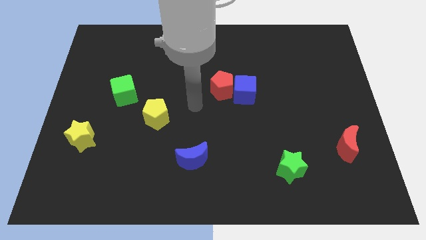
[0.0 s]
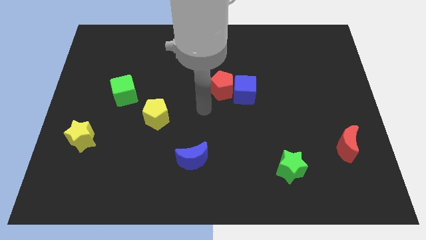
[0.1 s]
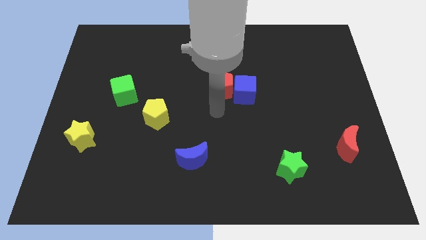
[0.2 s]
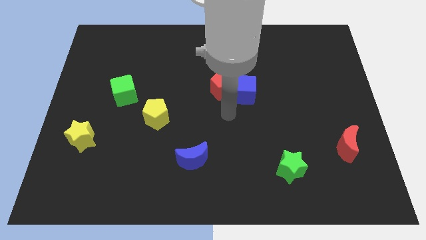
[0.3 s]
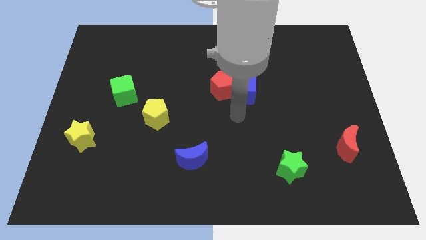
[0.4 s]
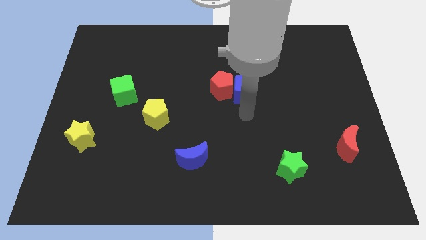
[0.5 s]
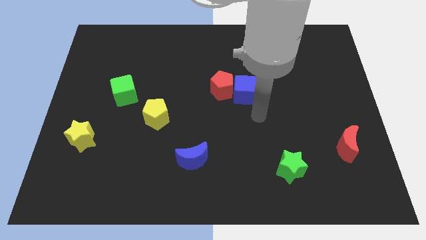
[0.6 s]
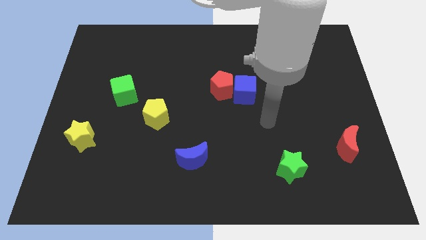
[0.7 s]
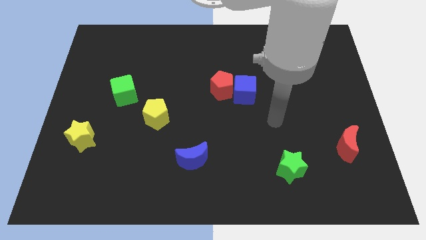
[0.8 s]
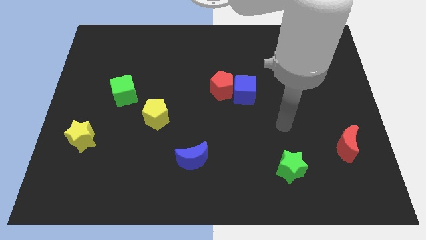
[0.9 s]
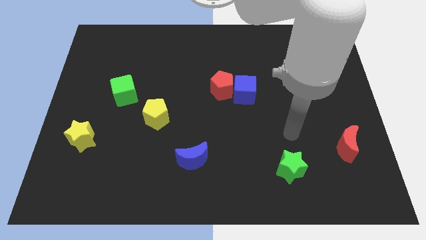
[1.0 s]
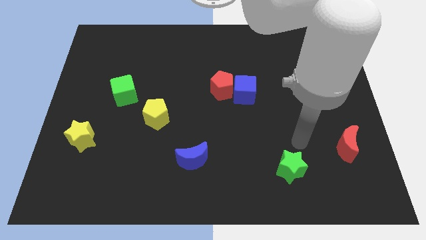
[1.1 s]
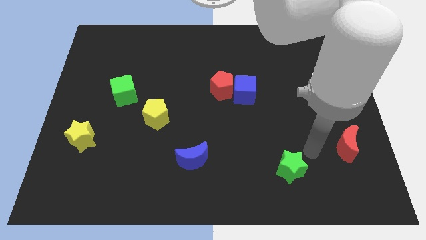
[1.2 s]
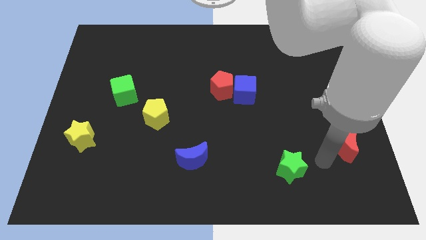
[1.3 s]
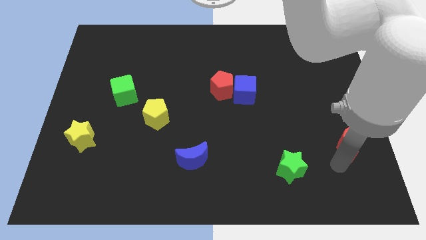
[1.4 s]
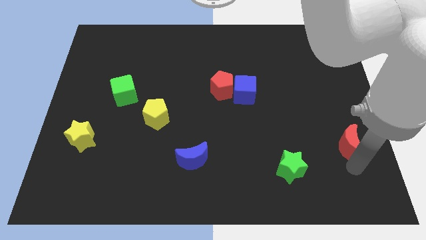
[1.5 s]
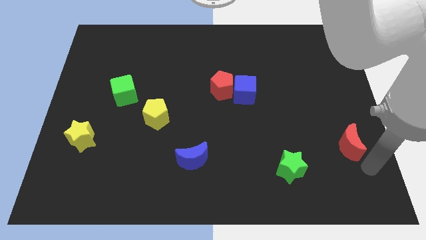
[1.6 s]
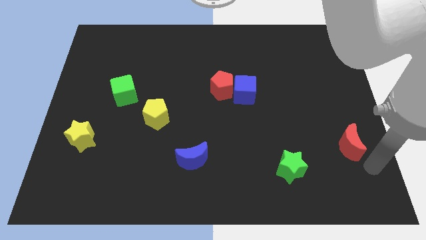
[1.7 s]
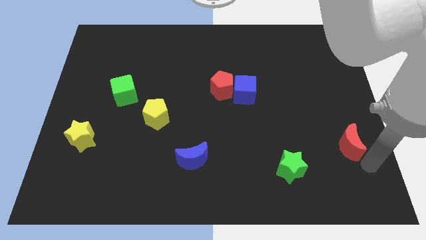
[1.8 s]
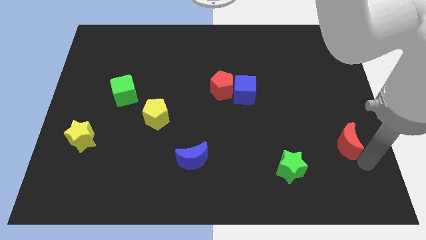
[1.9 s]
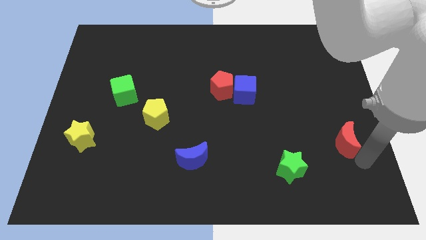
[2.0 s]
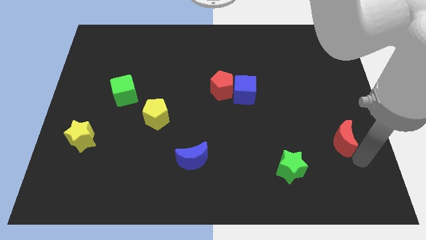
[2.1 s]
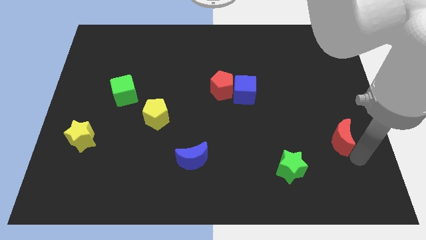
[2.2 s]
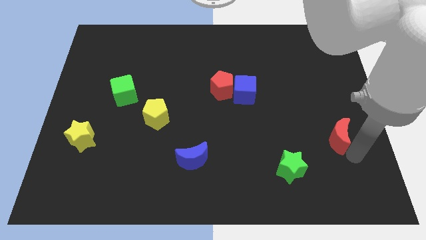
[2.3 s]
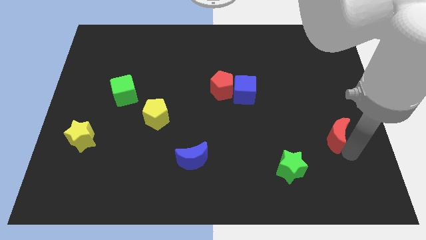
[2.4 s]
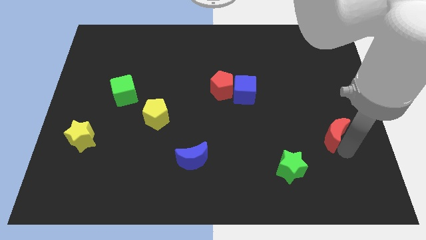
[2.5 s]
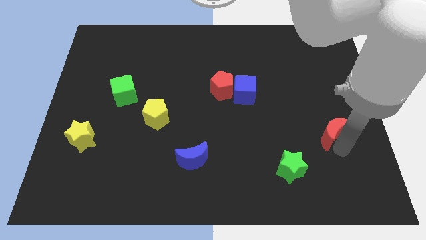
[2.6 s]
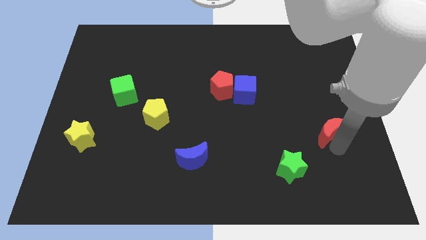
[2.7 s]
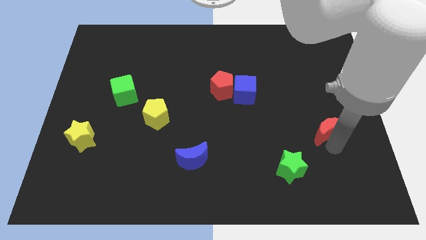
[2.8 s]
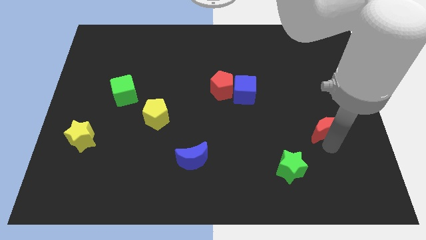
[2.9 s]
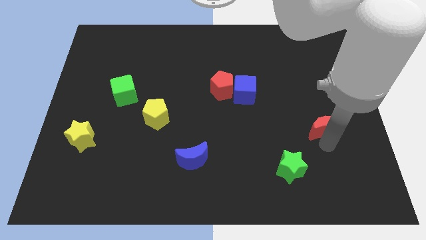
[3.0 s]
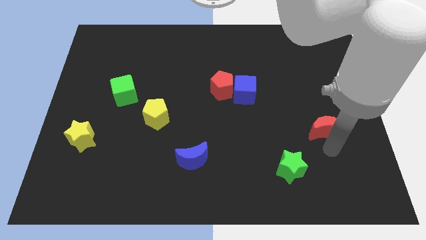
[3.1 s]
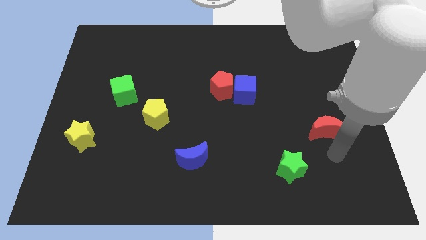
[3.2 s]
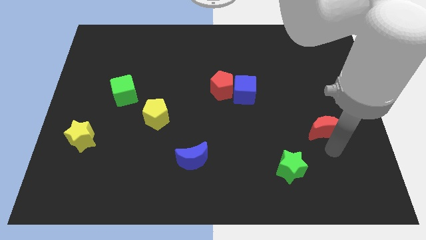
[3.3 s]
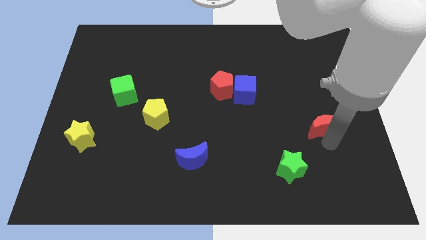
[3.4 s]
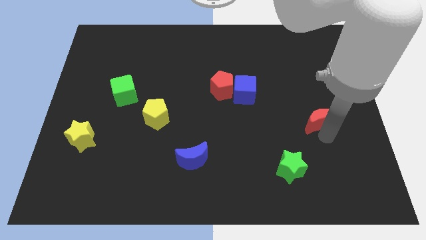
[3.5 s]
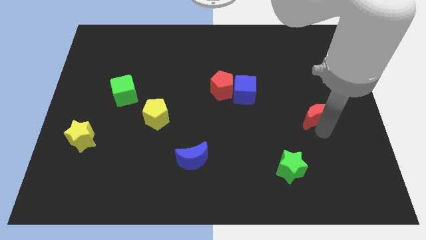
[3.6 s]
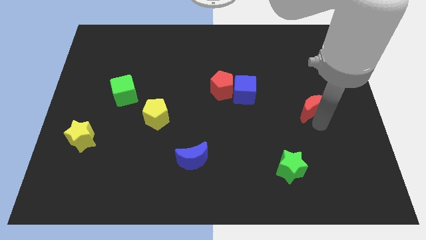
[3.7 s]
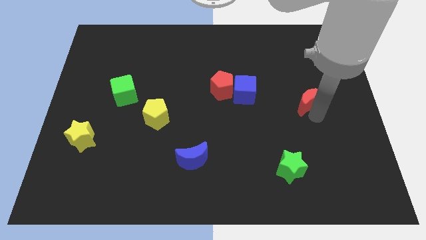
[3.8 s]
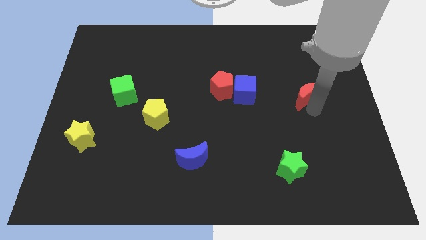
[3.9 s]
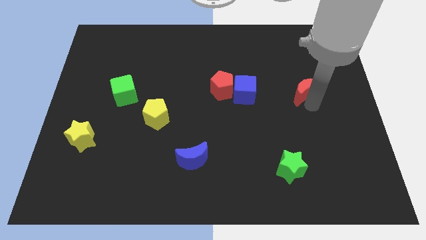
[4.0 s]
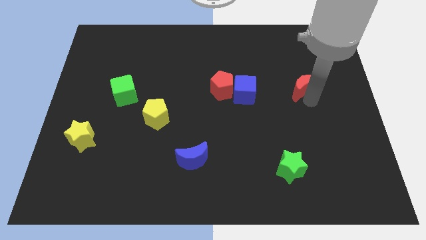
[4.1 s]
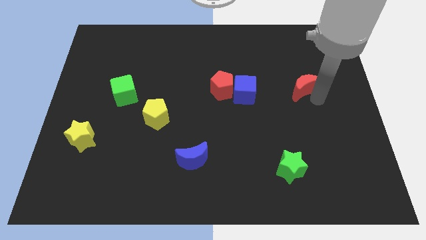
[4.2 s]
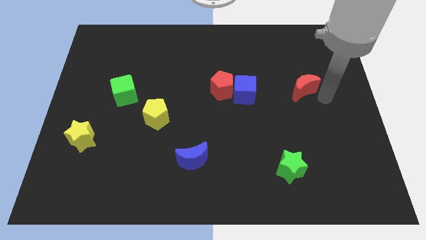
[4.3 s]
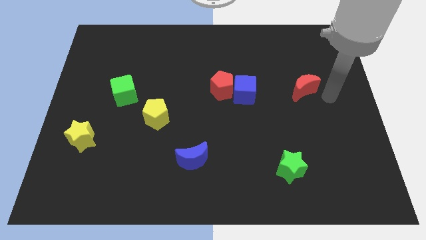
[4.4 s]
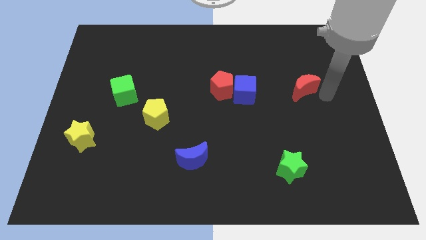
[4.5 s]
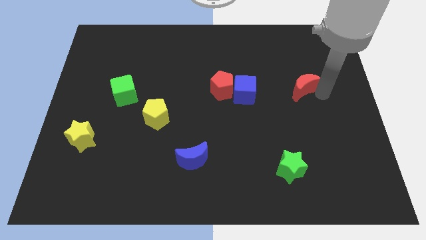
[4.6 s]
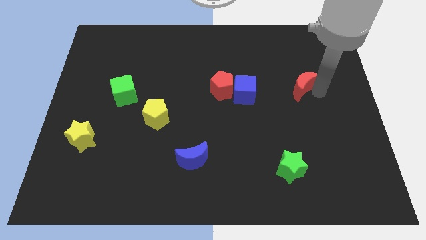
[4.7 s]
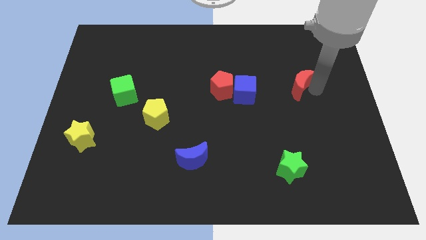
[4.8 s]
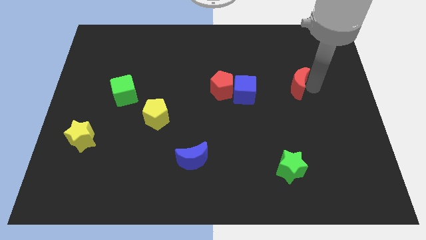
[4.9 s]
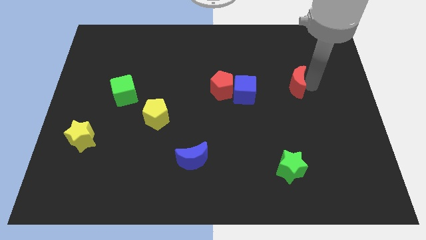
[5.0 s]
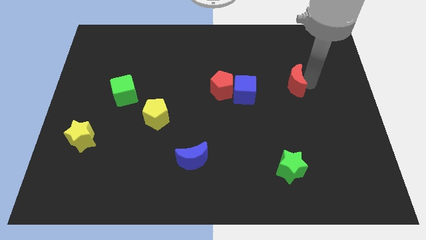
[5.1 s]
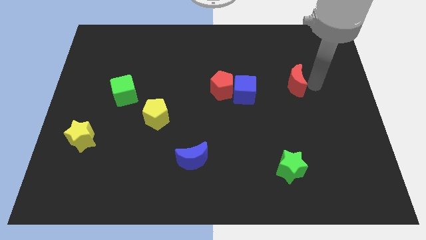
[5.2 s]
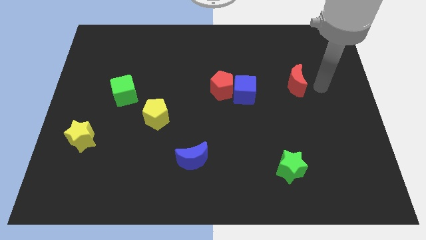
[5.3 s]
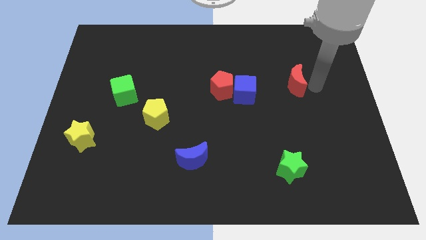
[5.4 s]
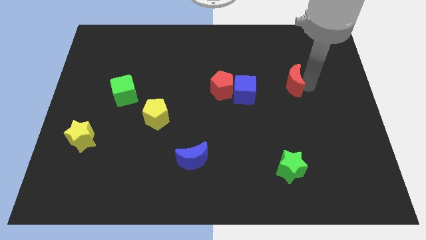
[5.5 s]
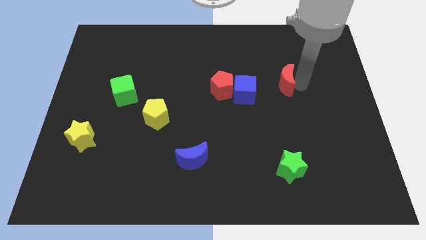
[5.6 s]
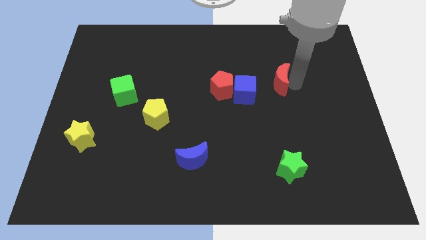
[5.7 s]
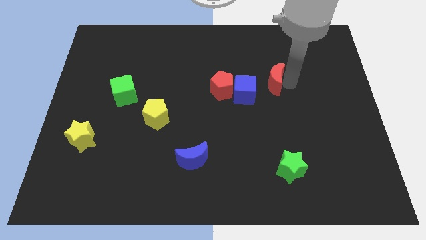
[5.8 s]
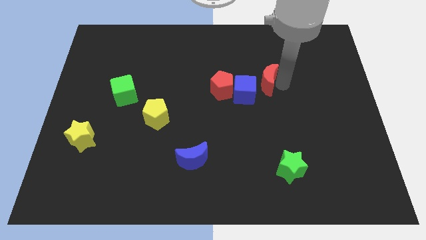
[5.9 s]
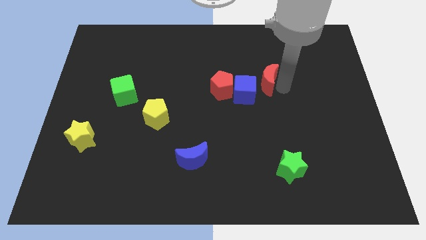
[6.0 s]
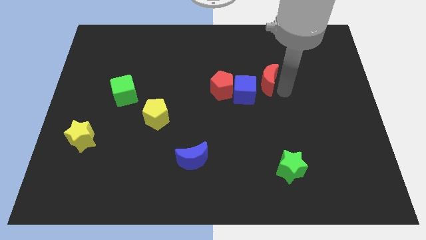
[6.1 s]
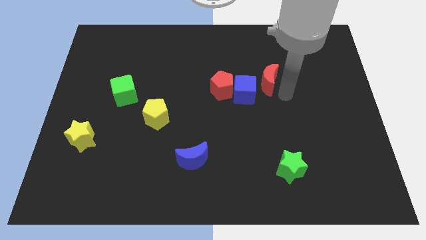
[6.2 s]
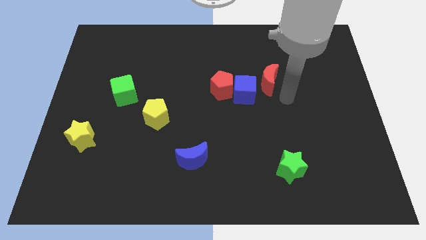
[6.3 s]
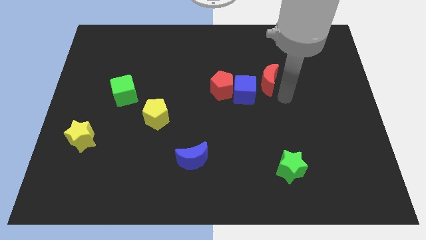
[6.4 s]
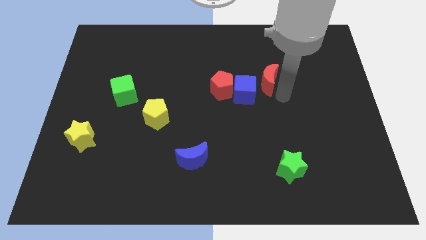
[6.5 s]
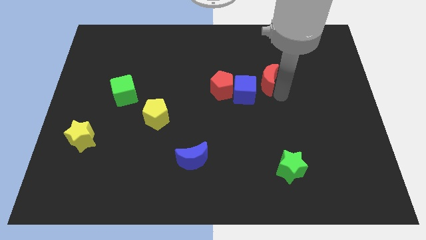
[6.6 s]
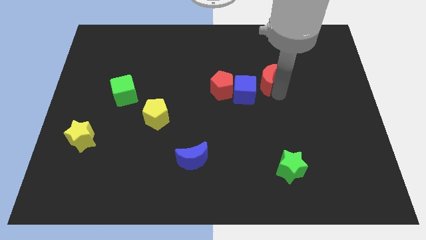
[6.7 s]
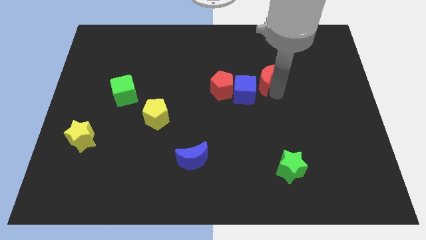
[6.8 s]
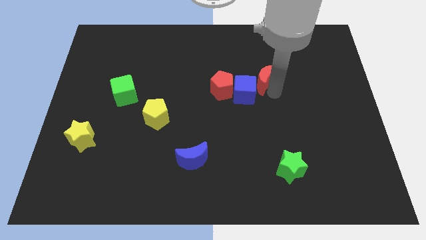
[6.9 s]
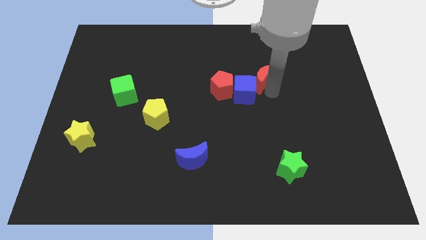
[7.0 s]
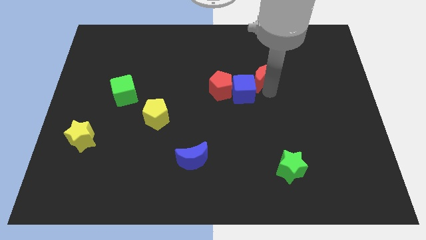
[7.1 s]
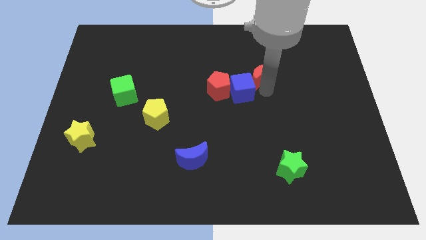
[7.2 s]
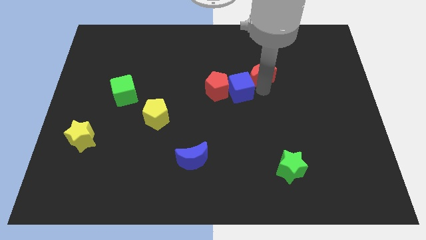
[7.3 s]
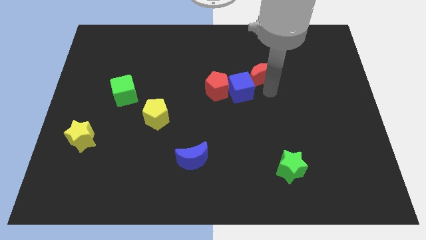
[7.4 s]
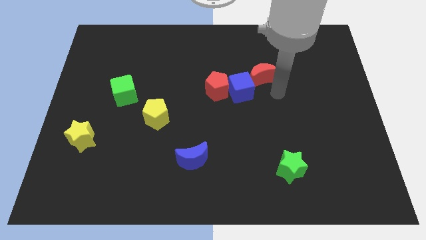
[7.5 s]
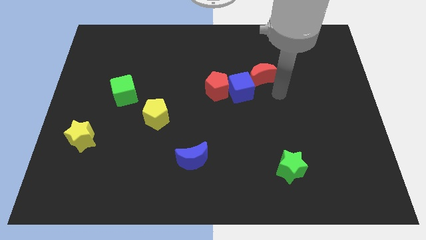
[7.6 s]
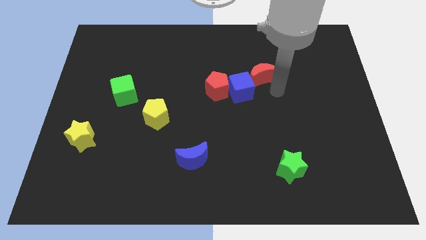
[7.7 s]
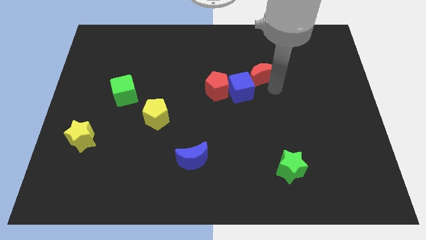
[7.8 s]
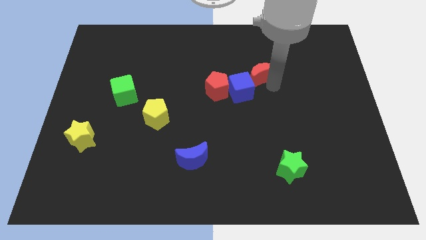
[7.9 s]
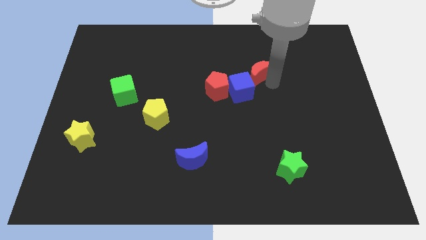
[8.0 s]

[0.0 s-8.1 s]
slide the red moon to the top side of the blue cube
